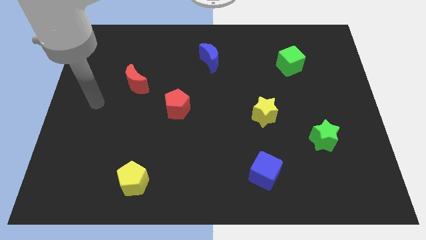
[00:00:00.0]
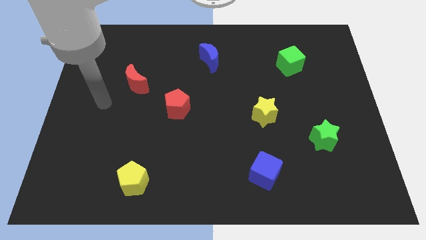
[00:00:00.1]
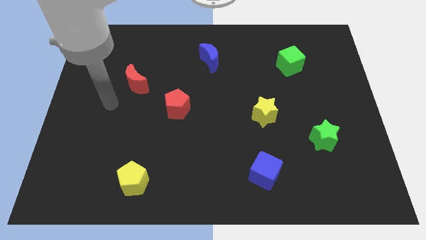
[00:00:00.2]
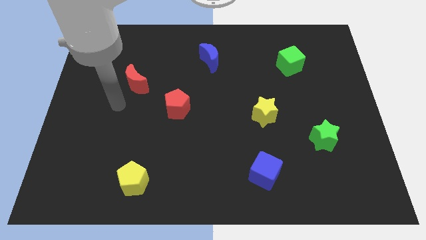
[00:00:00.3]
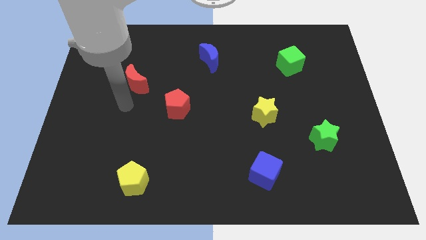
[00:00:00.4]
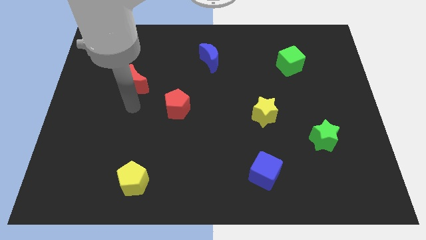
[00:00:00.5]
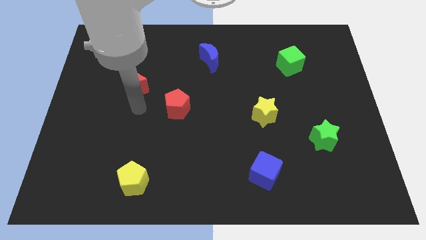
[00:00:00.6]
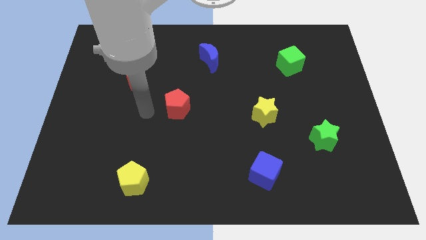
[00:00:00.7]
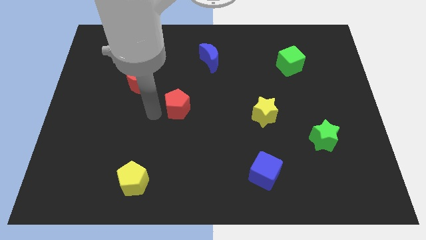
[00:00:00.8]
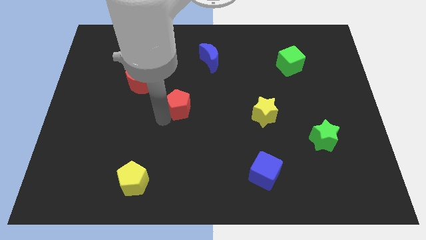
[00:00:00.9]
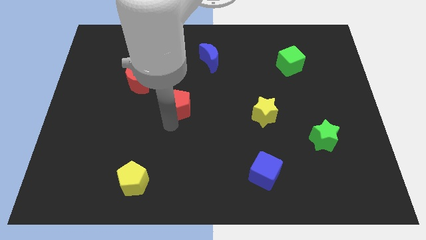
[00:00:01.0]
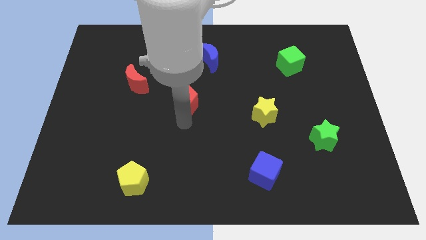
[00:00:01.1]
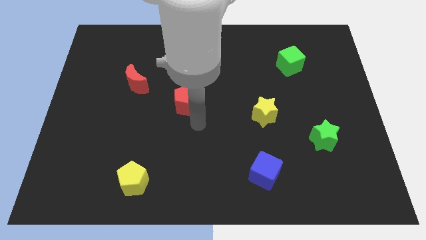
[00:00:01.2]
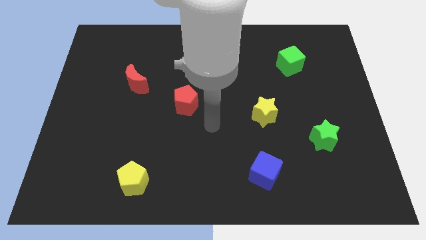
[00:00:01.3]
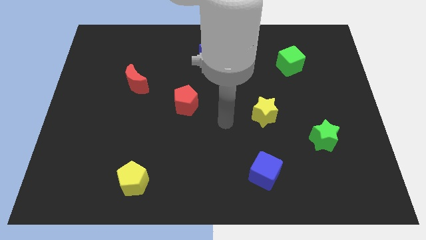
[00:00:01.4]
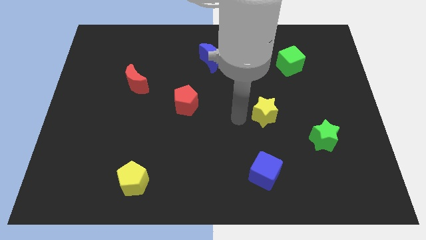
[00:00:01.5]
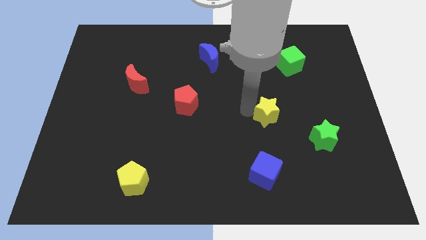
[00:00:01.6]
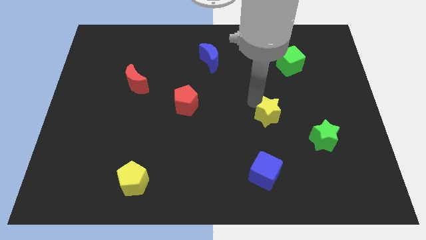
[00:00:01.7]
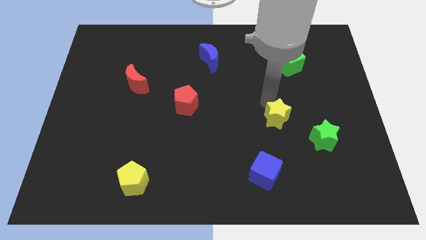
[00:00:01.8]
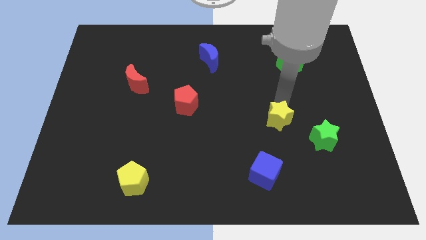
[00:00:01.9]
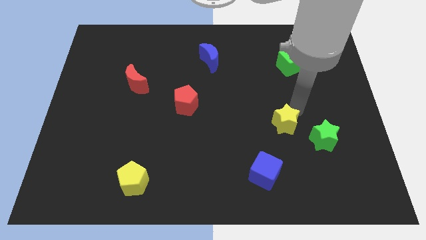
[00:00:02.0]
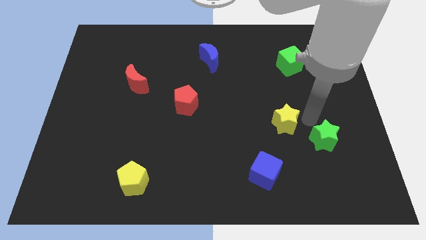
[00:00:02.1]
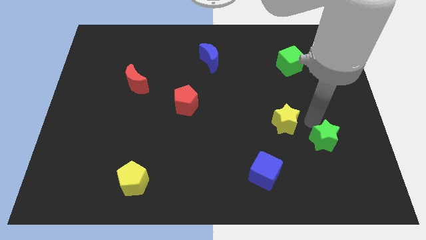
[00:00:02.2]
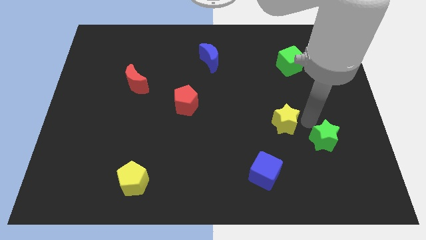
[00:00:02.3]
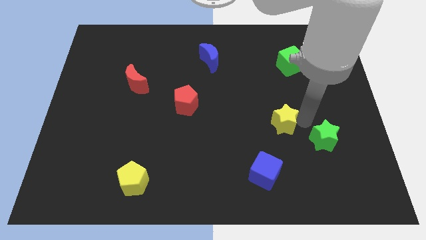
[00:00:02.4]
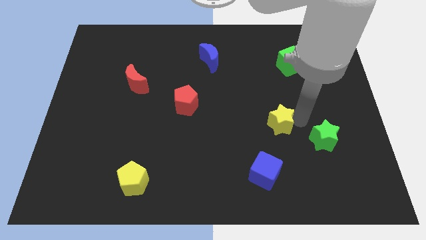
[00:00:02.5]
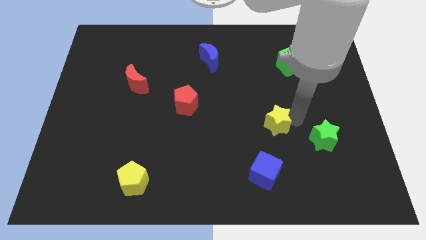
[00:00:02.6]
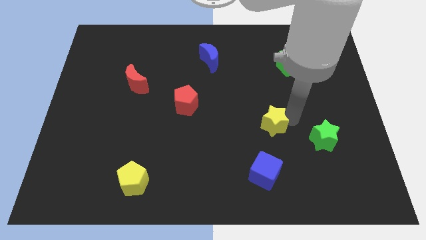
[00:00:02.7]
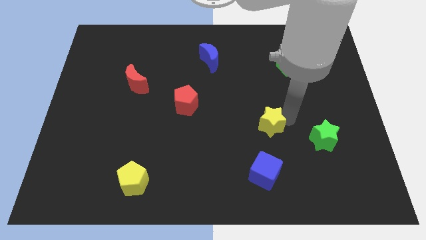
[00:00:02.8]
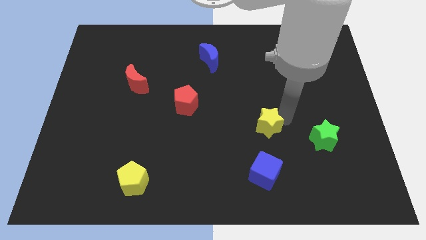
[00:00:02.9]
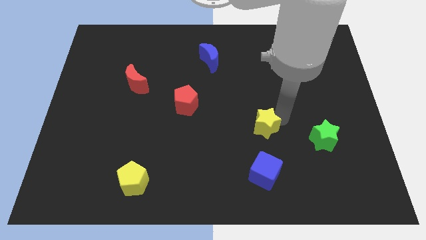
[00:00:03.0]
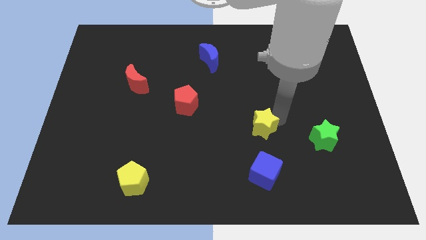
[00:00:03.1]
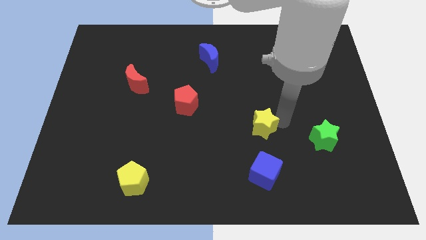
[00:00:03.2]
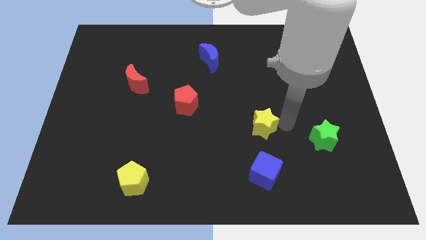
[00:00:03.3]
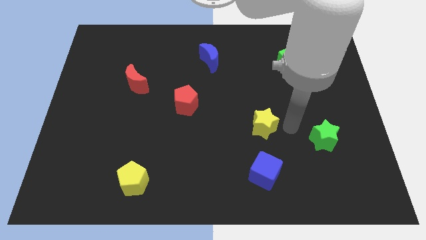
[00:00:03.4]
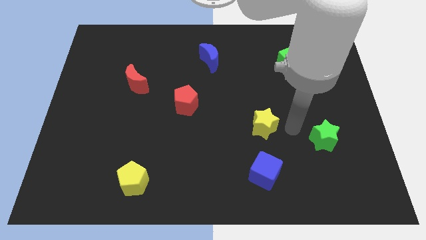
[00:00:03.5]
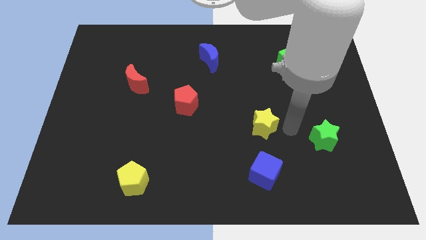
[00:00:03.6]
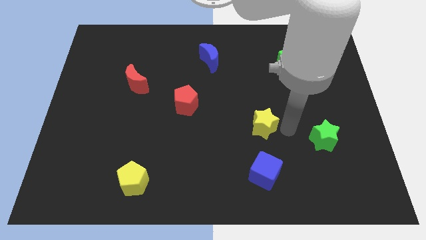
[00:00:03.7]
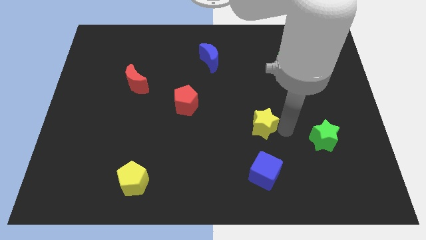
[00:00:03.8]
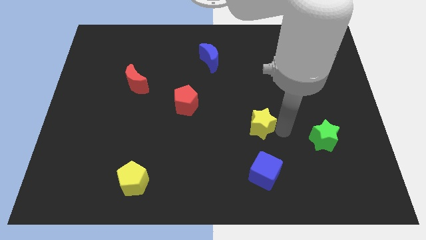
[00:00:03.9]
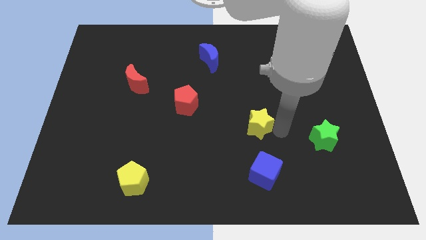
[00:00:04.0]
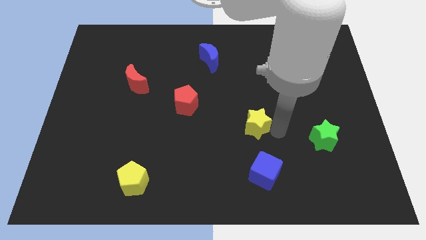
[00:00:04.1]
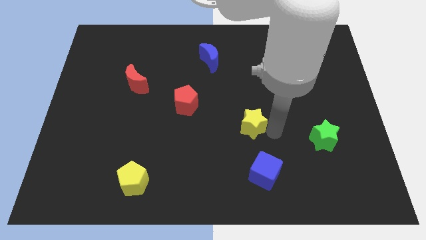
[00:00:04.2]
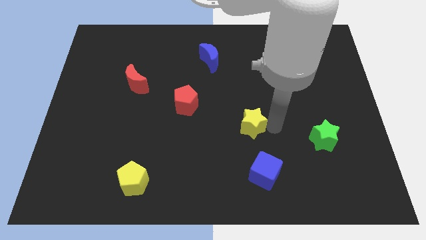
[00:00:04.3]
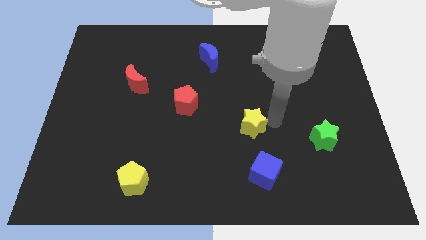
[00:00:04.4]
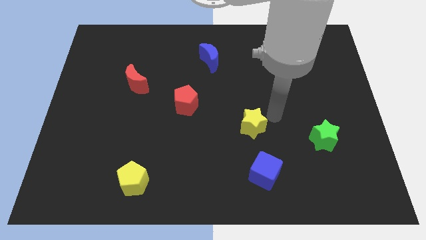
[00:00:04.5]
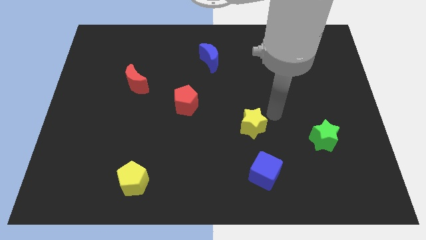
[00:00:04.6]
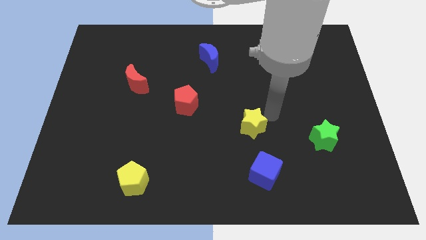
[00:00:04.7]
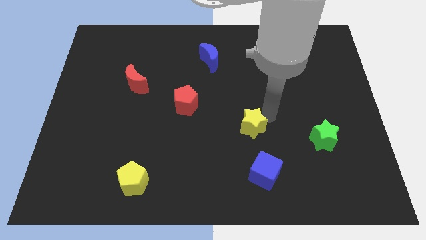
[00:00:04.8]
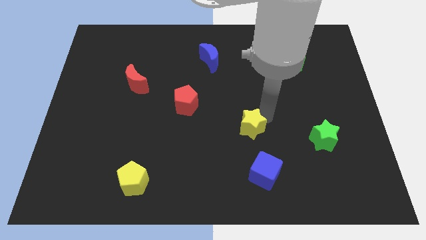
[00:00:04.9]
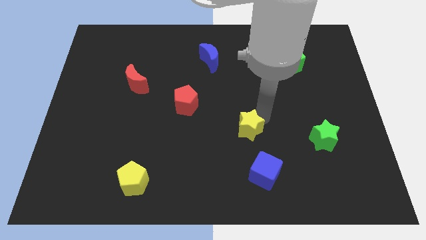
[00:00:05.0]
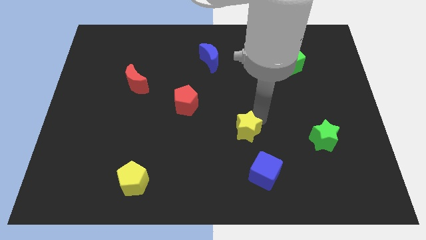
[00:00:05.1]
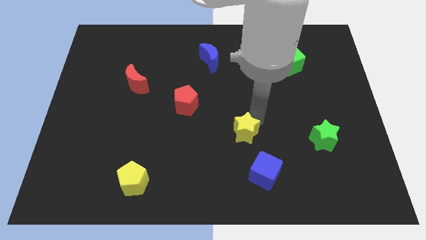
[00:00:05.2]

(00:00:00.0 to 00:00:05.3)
move the yellow star slightly downwards and to the left

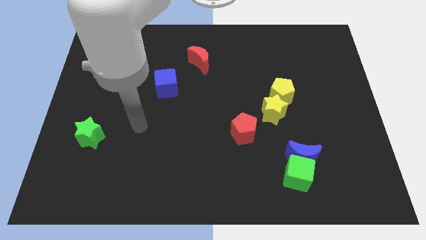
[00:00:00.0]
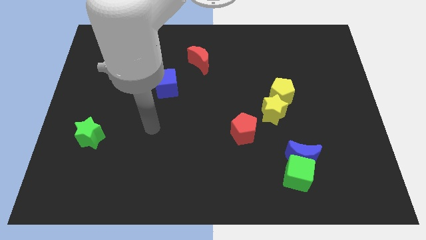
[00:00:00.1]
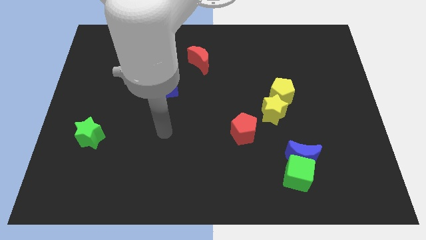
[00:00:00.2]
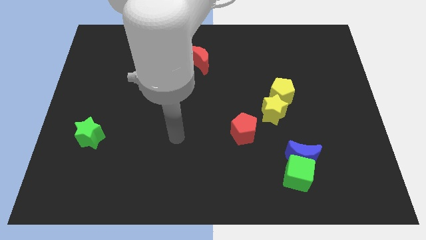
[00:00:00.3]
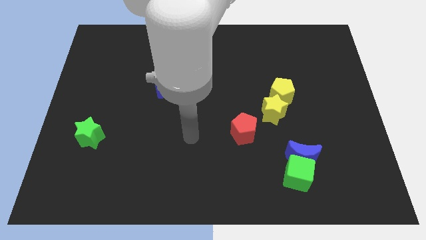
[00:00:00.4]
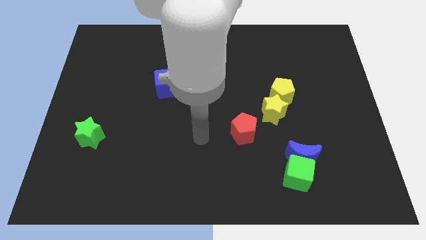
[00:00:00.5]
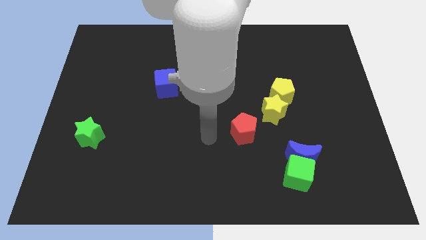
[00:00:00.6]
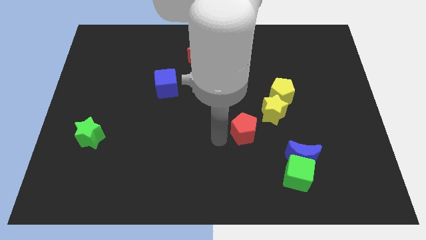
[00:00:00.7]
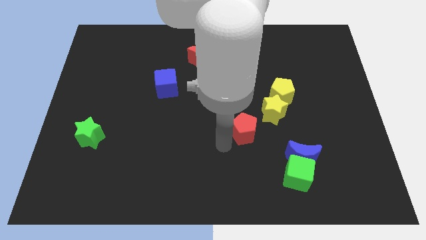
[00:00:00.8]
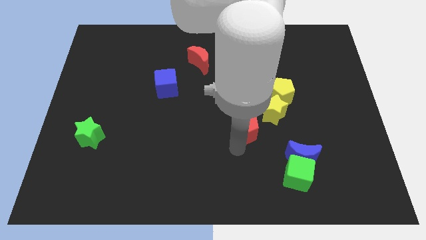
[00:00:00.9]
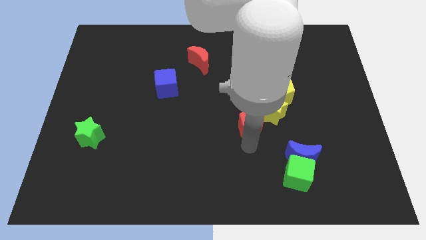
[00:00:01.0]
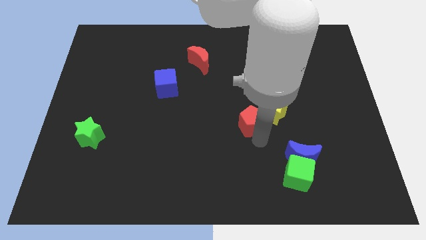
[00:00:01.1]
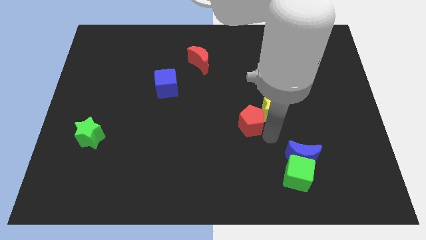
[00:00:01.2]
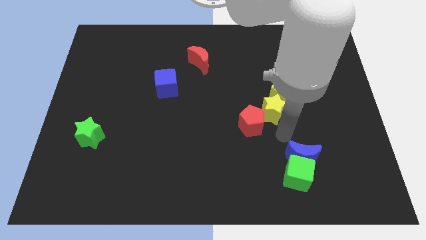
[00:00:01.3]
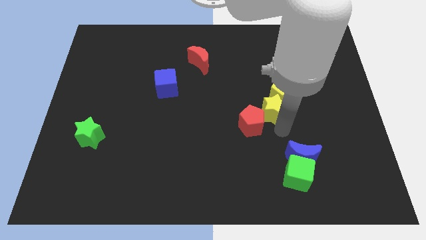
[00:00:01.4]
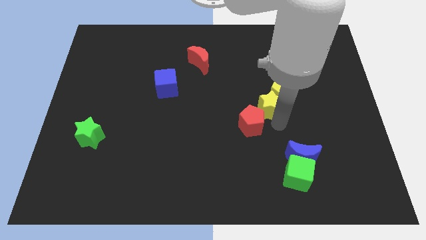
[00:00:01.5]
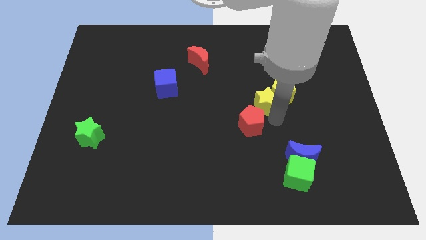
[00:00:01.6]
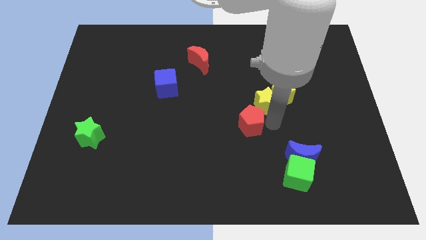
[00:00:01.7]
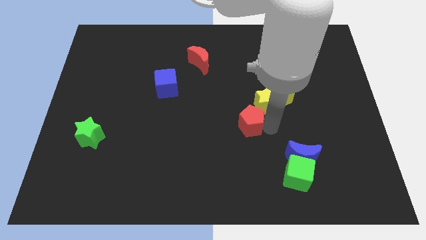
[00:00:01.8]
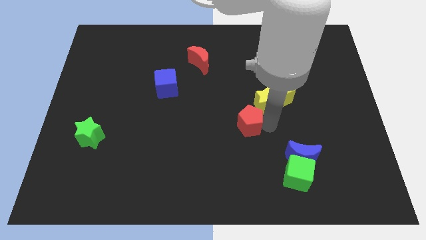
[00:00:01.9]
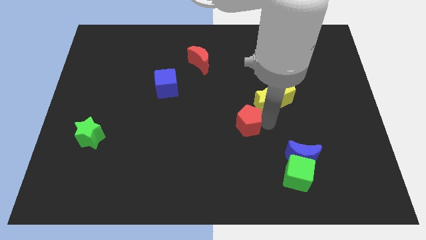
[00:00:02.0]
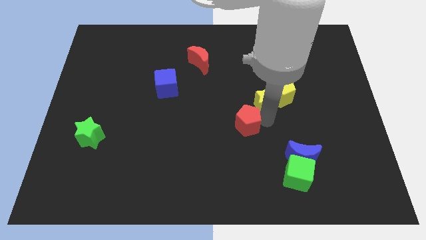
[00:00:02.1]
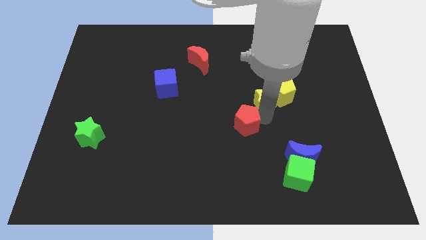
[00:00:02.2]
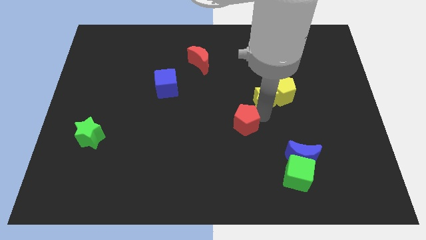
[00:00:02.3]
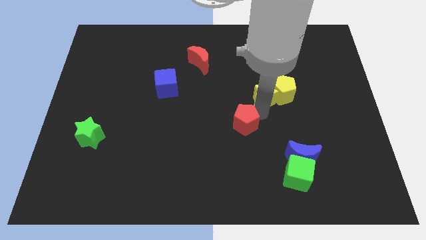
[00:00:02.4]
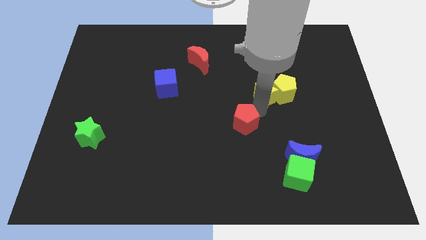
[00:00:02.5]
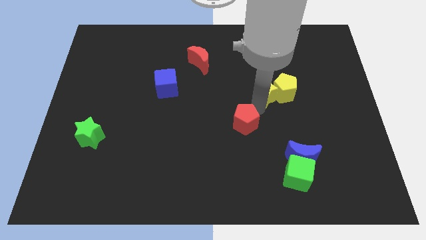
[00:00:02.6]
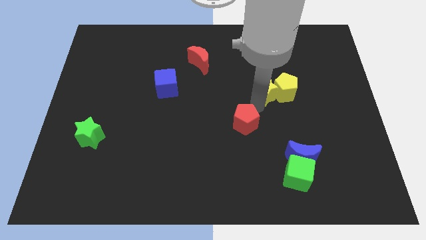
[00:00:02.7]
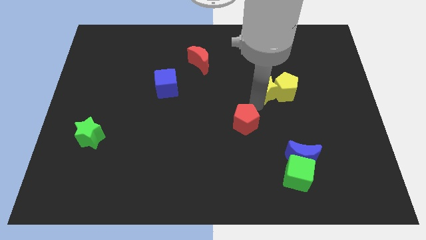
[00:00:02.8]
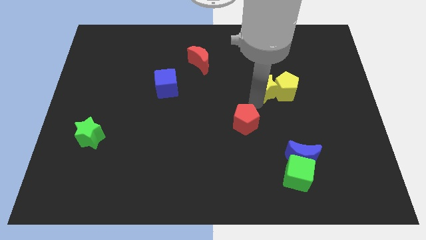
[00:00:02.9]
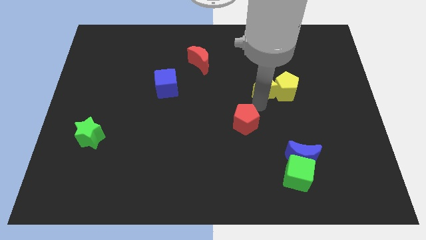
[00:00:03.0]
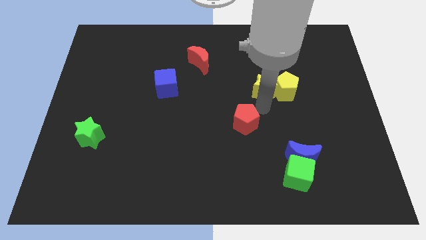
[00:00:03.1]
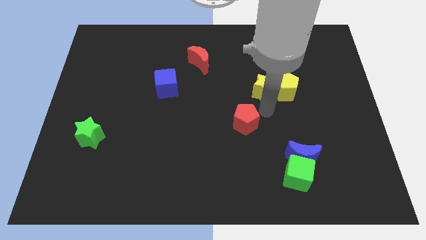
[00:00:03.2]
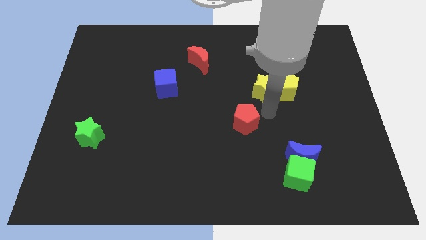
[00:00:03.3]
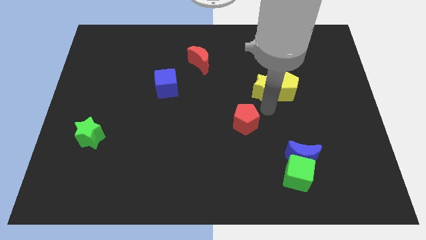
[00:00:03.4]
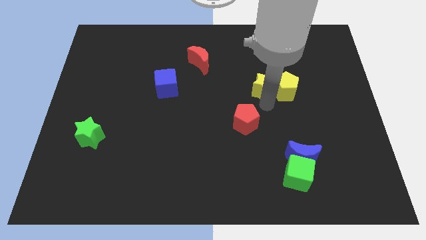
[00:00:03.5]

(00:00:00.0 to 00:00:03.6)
move the yellow star a little bit up
